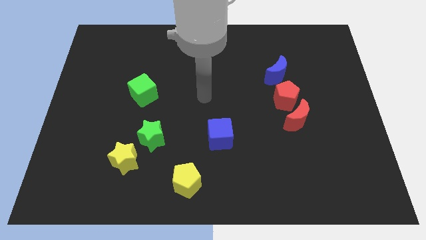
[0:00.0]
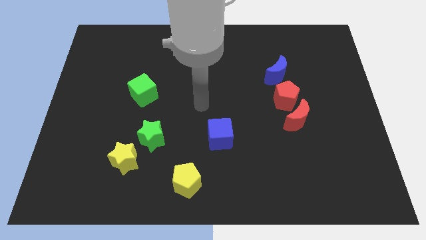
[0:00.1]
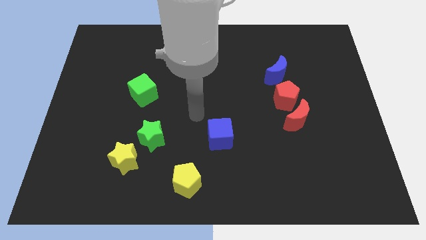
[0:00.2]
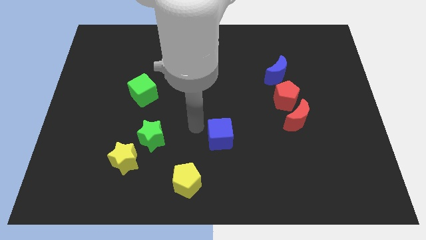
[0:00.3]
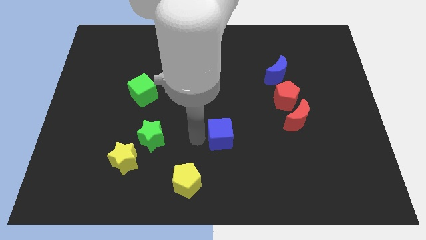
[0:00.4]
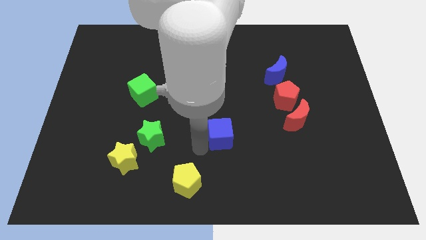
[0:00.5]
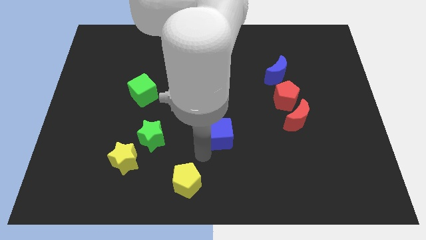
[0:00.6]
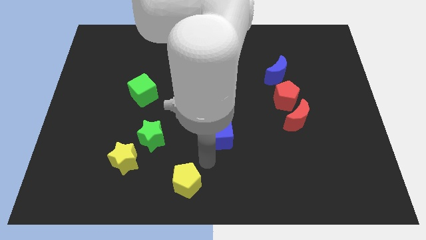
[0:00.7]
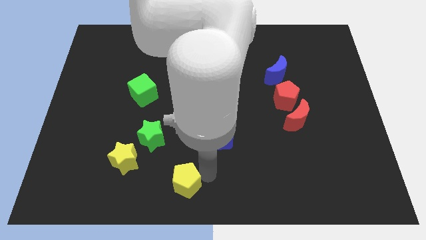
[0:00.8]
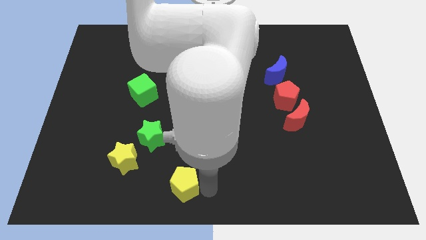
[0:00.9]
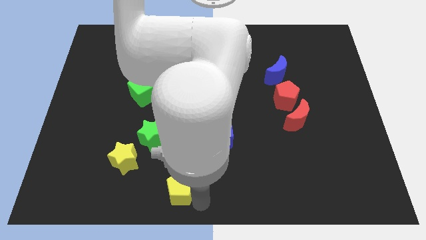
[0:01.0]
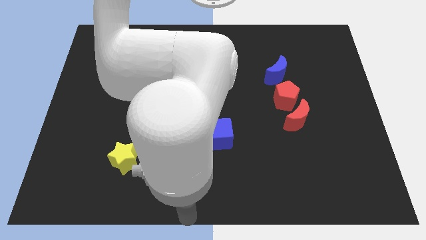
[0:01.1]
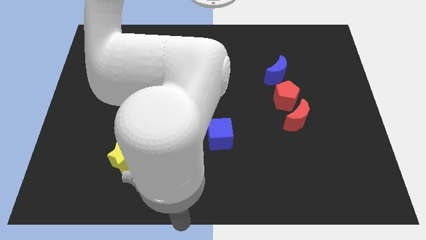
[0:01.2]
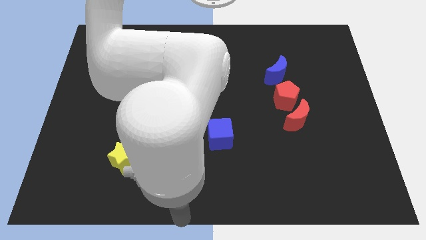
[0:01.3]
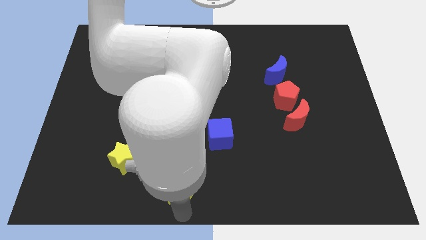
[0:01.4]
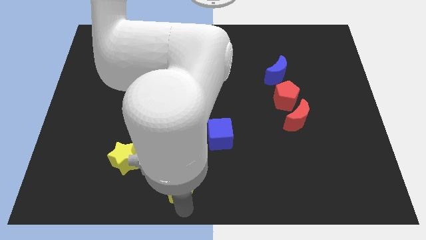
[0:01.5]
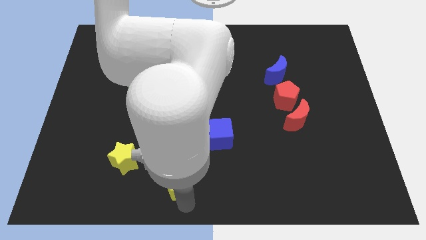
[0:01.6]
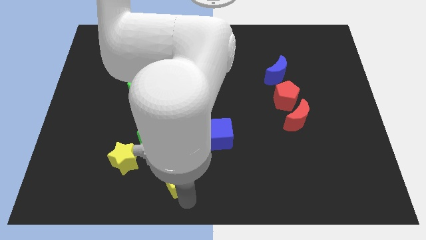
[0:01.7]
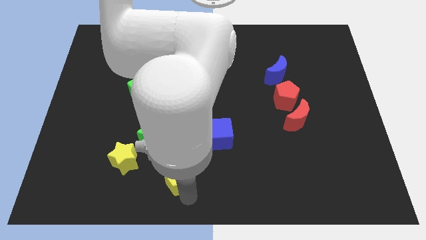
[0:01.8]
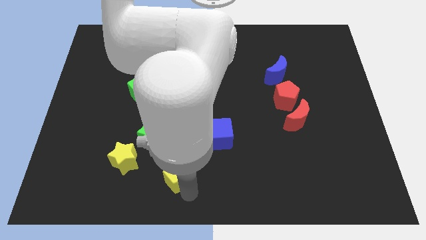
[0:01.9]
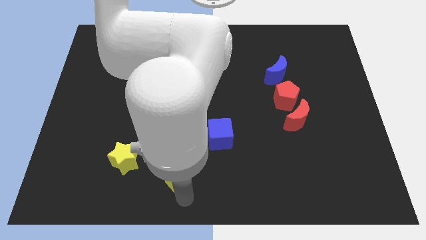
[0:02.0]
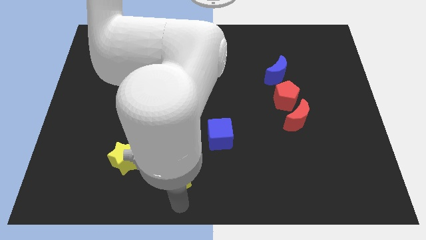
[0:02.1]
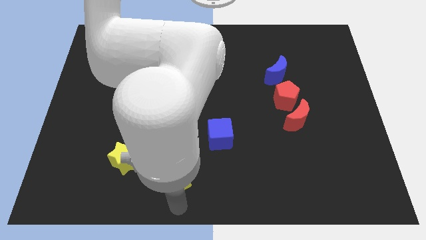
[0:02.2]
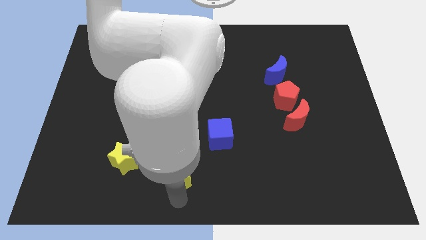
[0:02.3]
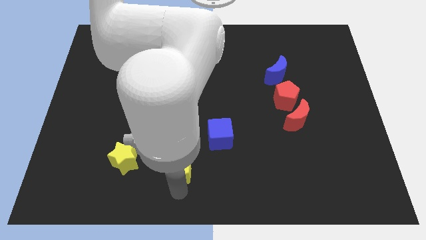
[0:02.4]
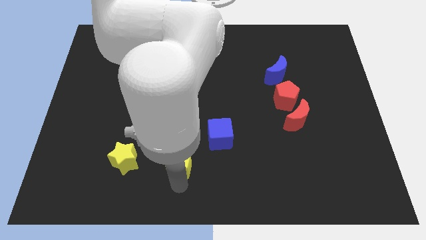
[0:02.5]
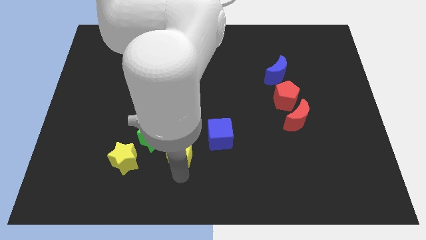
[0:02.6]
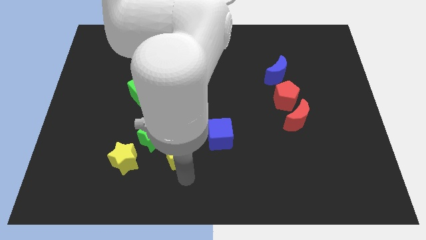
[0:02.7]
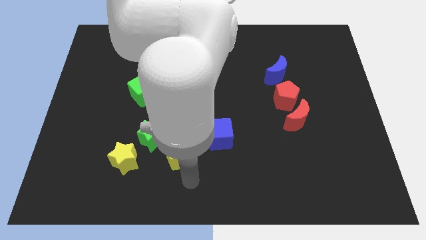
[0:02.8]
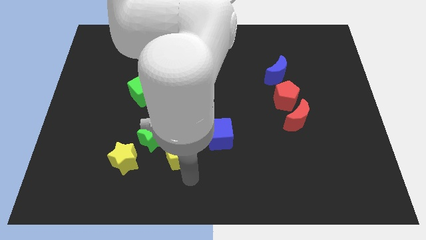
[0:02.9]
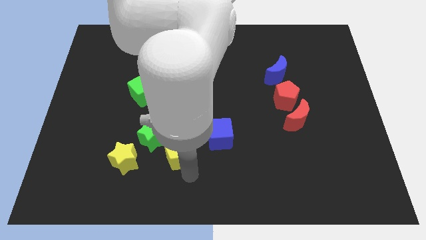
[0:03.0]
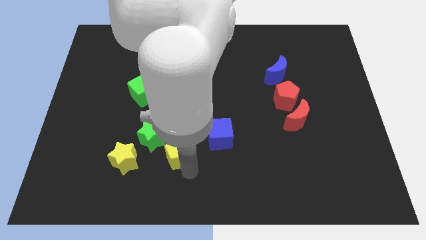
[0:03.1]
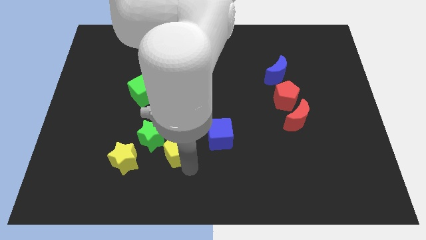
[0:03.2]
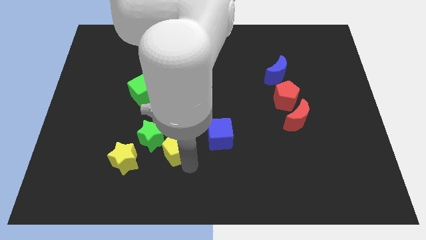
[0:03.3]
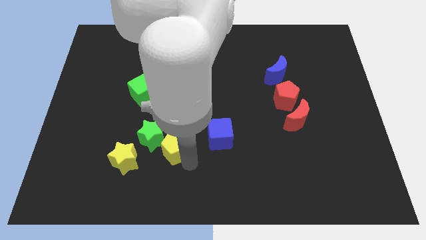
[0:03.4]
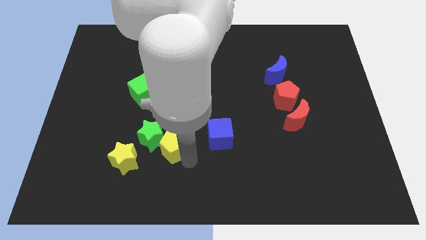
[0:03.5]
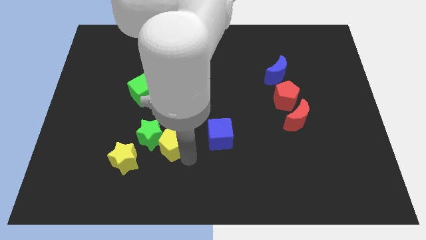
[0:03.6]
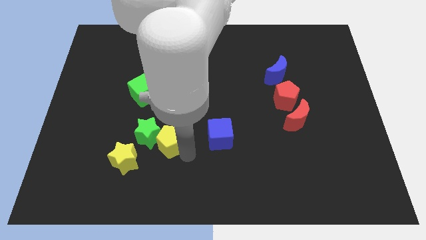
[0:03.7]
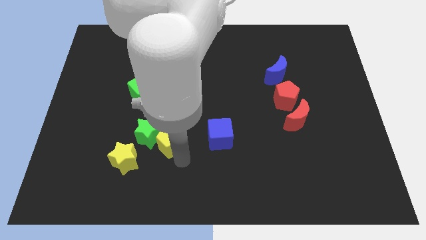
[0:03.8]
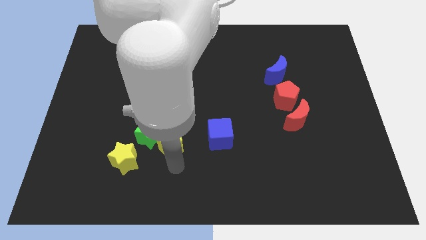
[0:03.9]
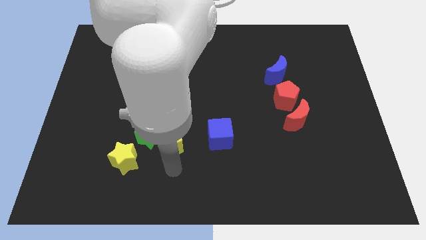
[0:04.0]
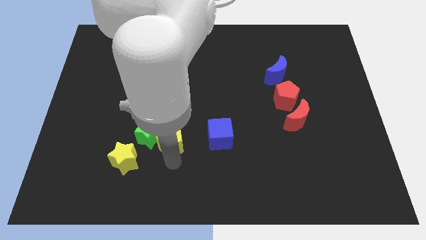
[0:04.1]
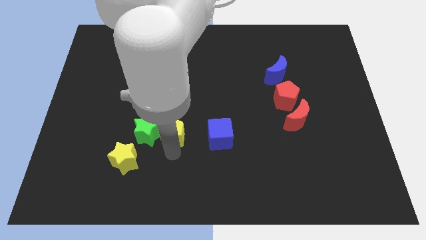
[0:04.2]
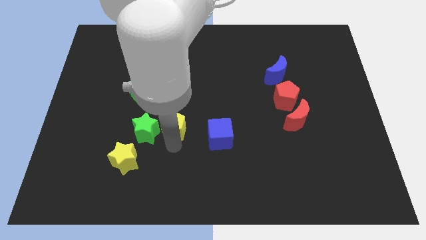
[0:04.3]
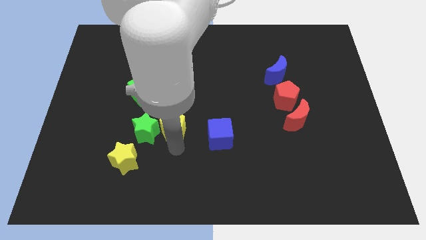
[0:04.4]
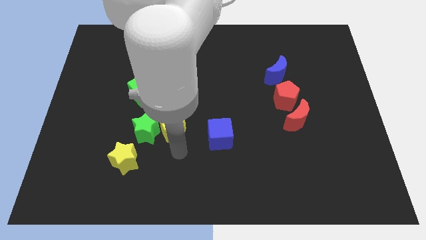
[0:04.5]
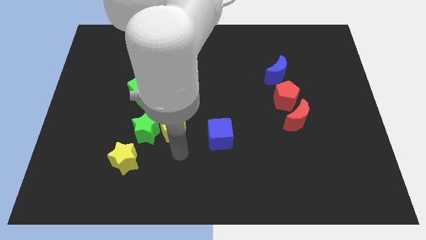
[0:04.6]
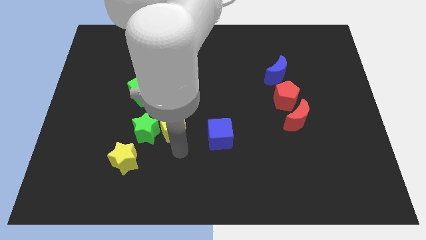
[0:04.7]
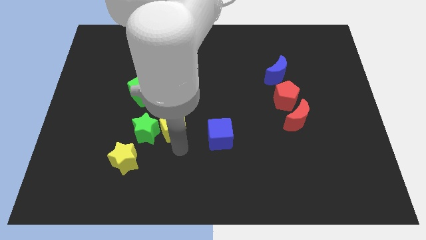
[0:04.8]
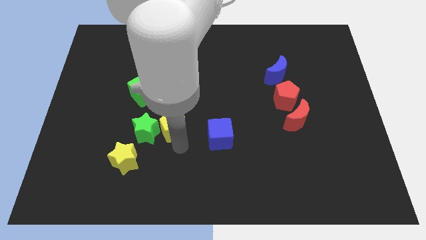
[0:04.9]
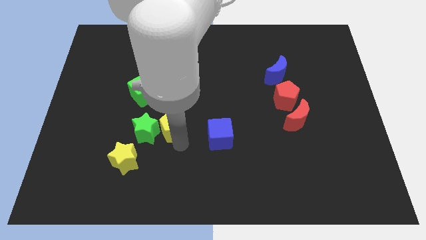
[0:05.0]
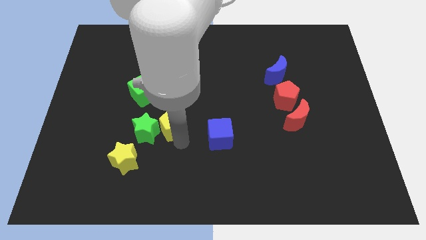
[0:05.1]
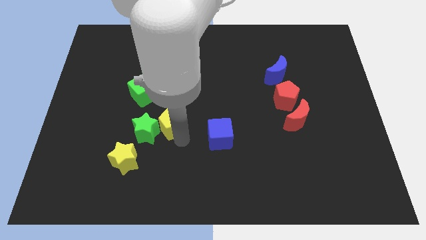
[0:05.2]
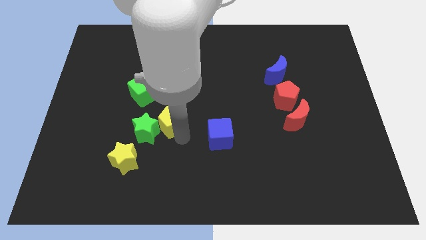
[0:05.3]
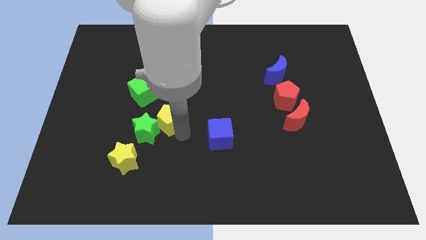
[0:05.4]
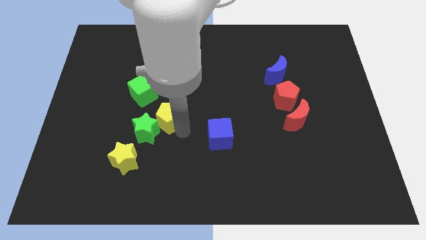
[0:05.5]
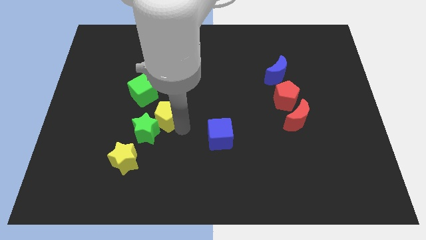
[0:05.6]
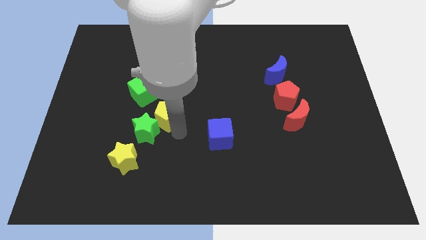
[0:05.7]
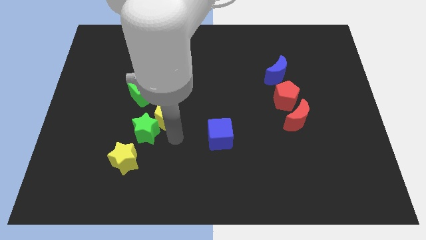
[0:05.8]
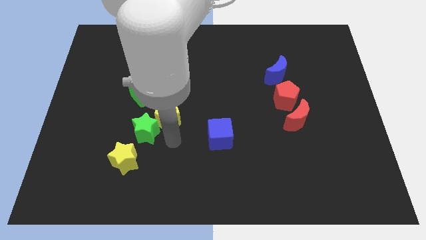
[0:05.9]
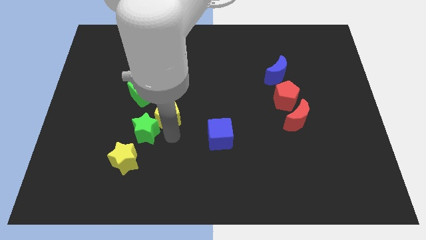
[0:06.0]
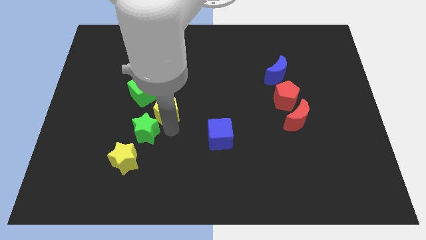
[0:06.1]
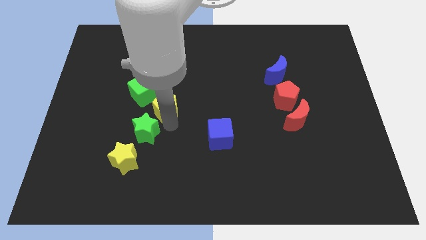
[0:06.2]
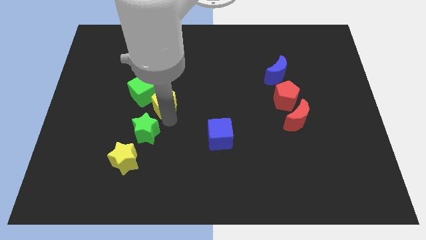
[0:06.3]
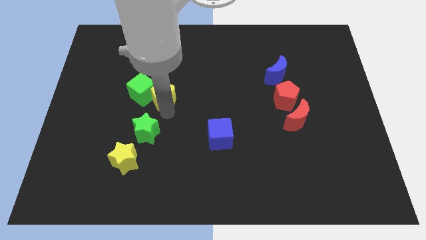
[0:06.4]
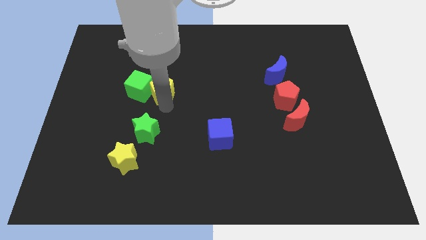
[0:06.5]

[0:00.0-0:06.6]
move the yellow pentagon diagonally up and to the right of the green cube
